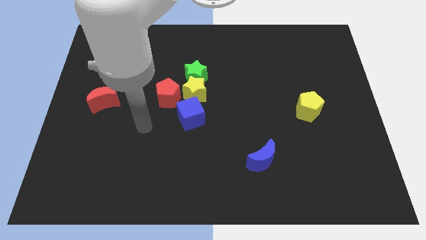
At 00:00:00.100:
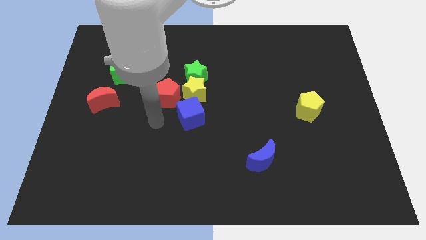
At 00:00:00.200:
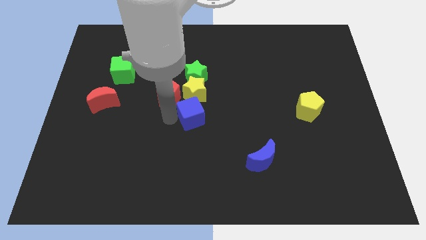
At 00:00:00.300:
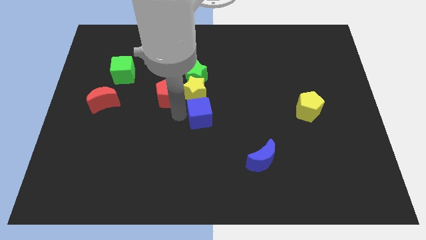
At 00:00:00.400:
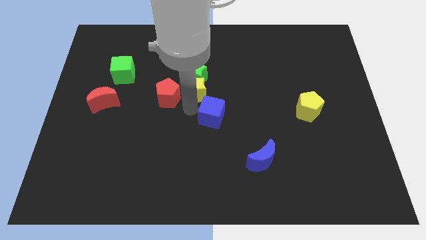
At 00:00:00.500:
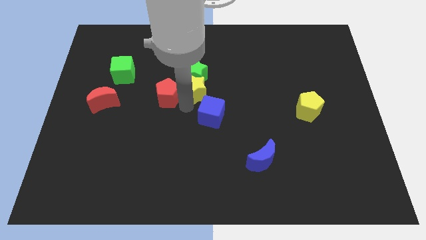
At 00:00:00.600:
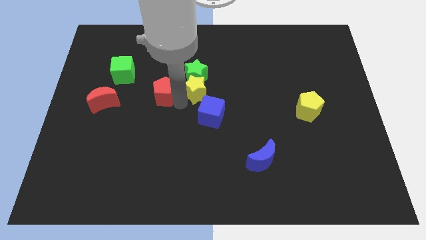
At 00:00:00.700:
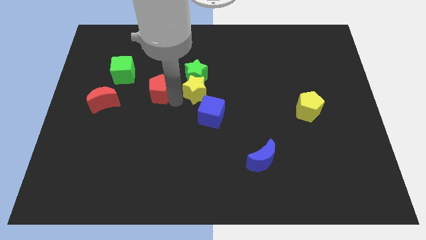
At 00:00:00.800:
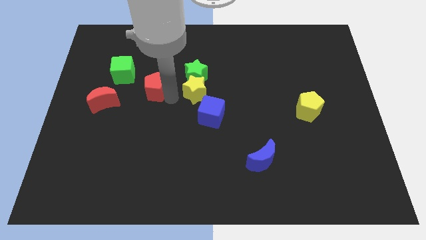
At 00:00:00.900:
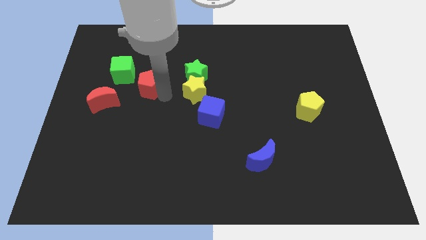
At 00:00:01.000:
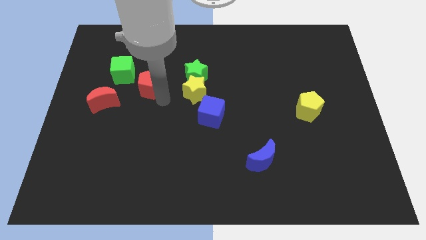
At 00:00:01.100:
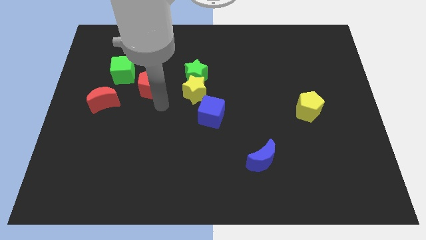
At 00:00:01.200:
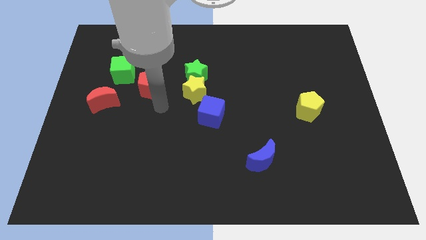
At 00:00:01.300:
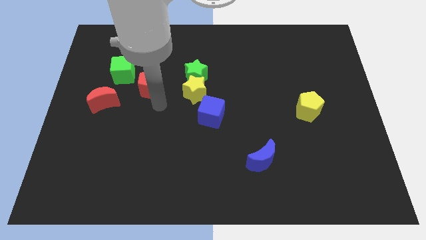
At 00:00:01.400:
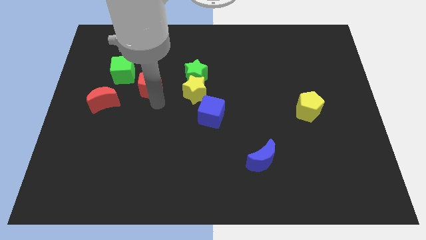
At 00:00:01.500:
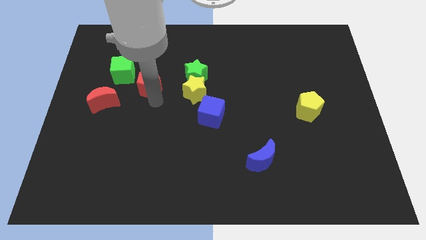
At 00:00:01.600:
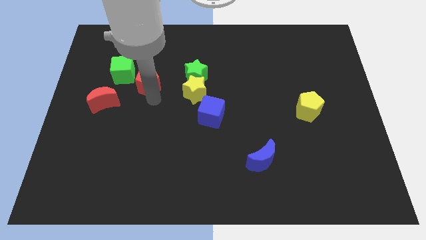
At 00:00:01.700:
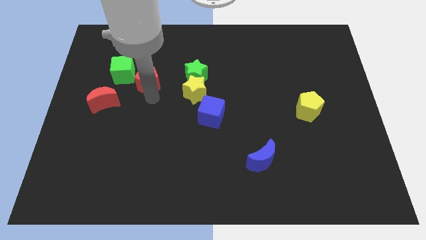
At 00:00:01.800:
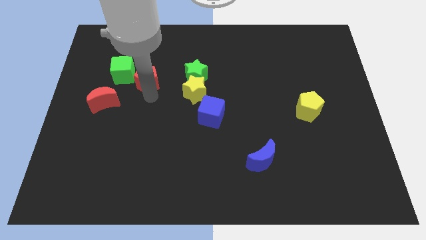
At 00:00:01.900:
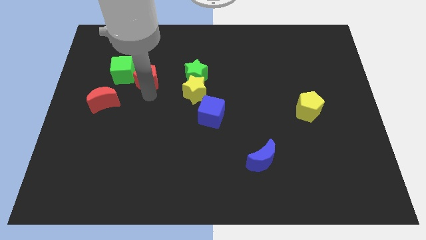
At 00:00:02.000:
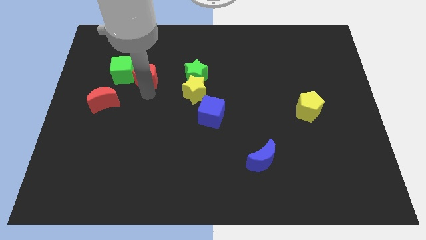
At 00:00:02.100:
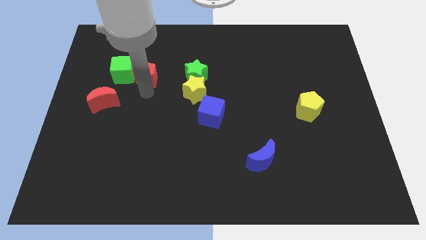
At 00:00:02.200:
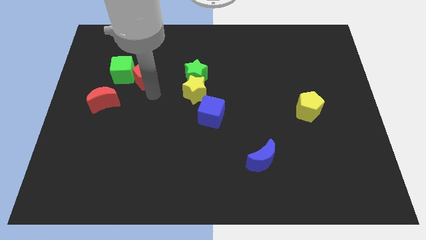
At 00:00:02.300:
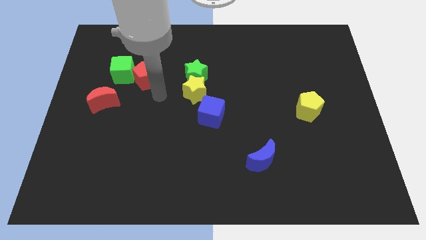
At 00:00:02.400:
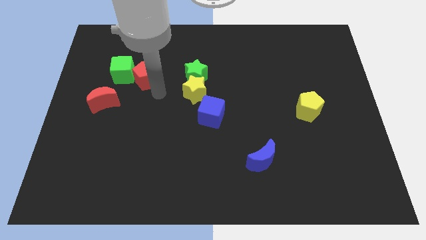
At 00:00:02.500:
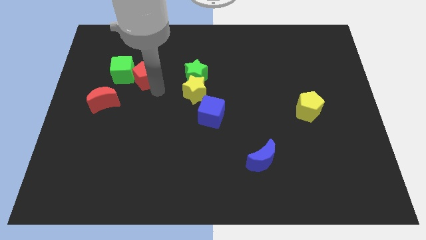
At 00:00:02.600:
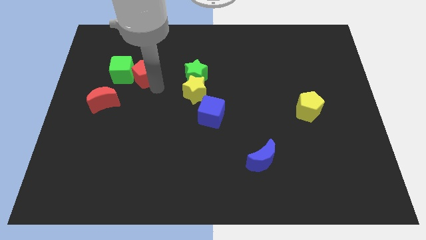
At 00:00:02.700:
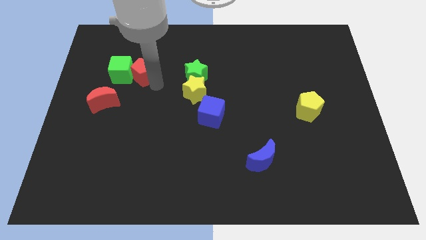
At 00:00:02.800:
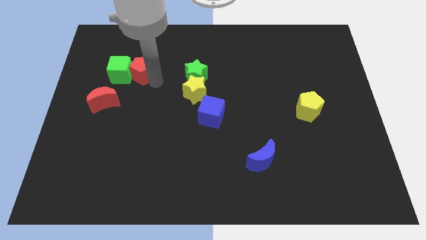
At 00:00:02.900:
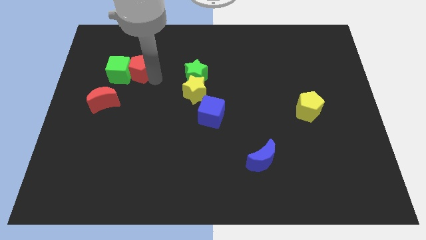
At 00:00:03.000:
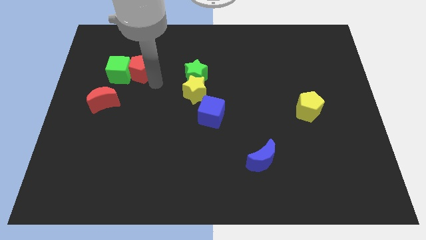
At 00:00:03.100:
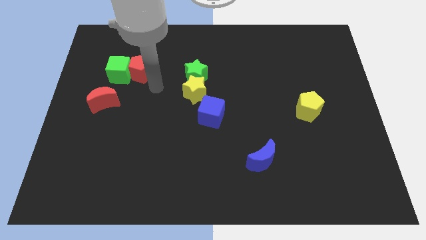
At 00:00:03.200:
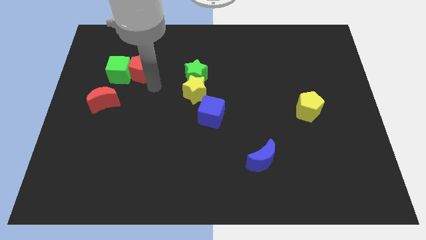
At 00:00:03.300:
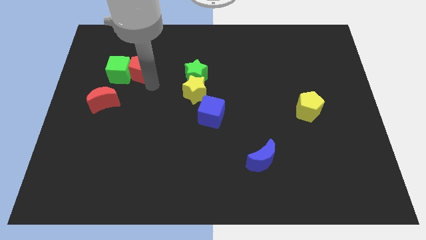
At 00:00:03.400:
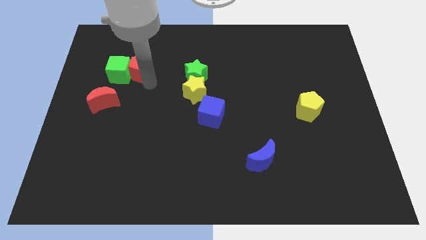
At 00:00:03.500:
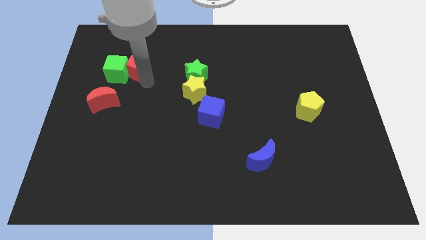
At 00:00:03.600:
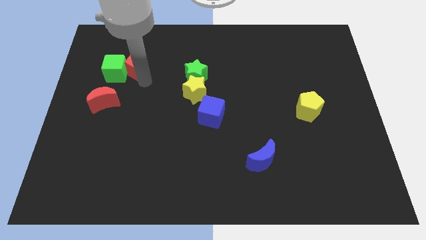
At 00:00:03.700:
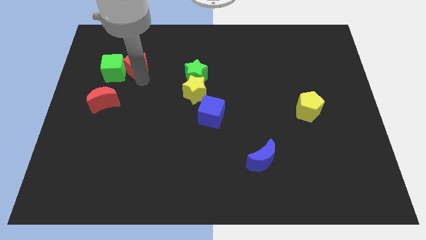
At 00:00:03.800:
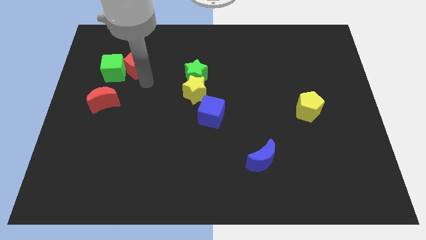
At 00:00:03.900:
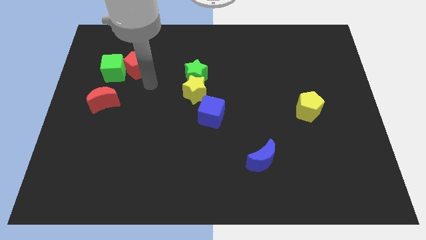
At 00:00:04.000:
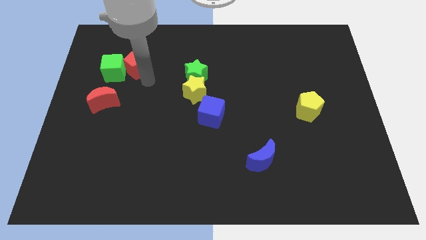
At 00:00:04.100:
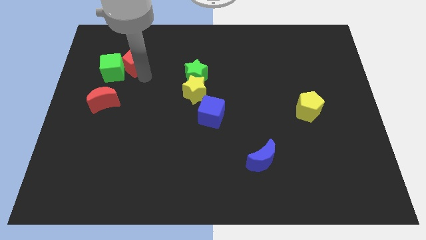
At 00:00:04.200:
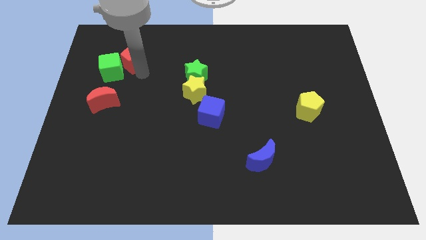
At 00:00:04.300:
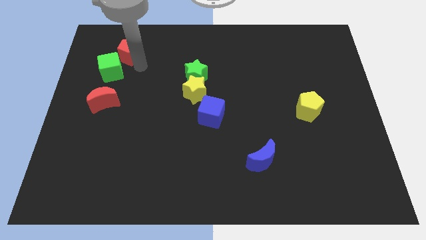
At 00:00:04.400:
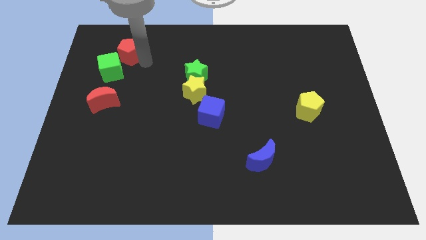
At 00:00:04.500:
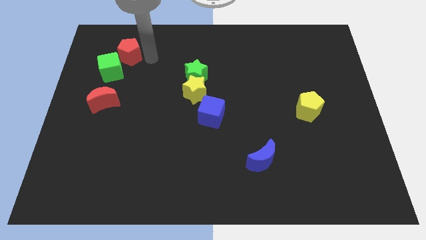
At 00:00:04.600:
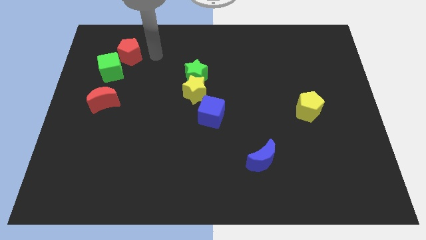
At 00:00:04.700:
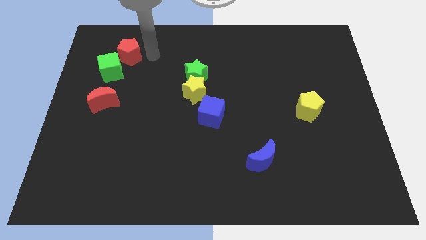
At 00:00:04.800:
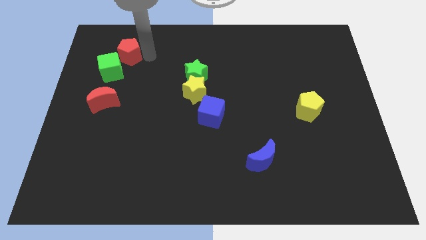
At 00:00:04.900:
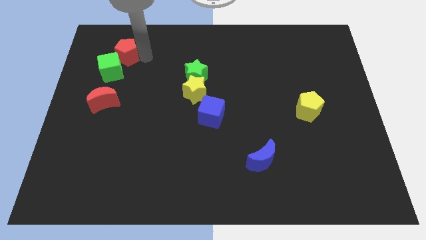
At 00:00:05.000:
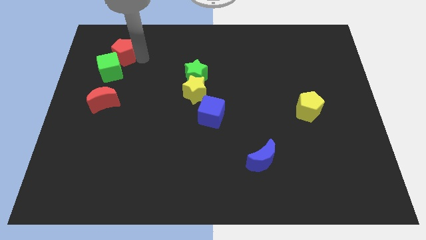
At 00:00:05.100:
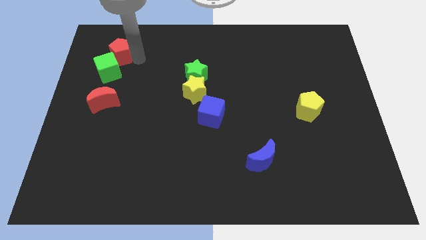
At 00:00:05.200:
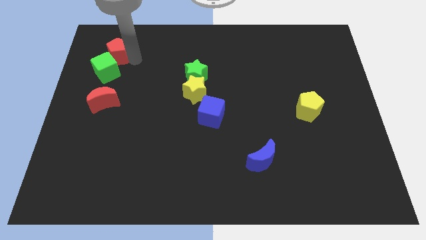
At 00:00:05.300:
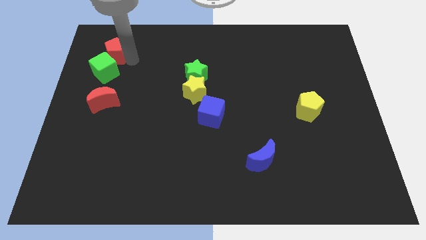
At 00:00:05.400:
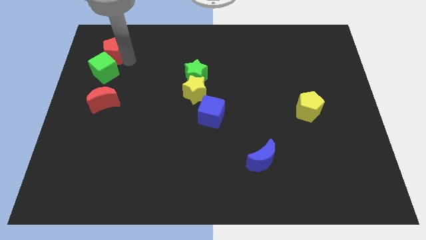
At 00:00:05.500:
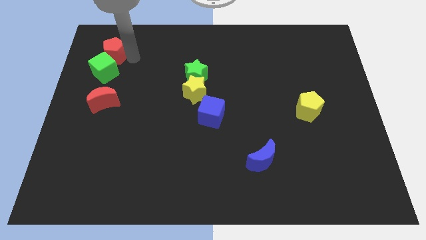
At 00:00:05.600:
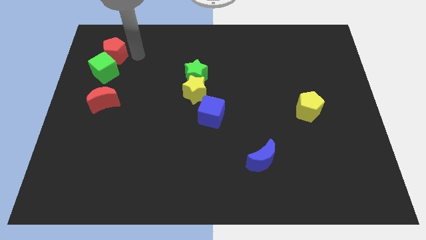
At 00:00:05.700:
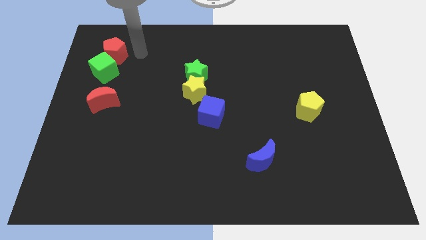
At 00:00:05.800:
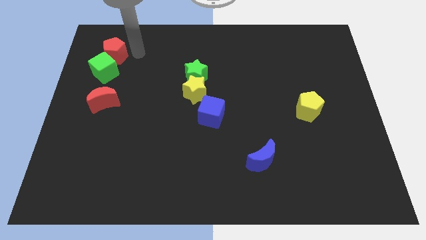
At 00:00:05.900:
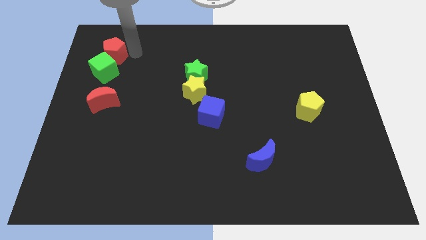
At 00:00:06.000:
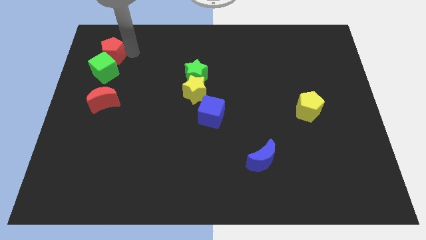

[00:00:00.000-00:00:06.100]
slide the red pentagon to the top left of the green cube

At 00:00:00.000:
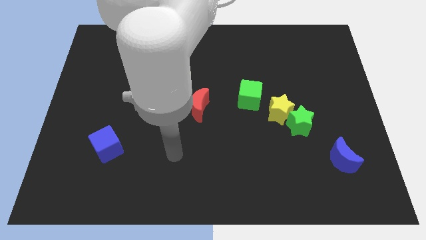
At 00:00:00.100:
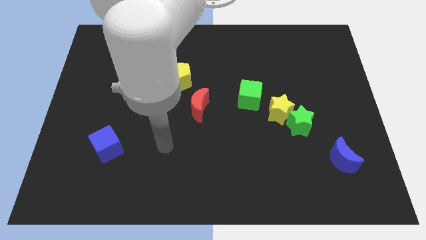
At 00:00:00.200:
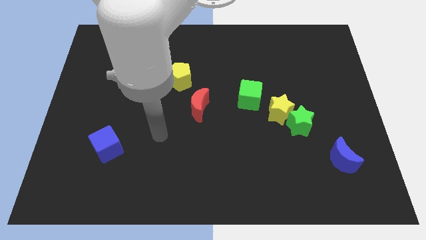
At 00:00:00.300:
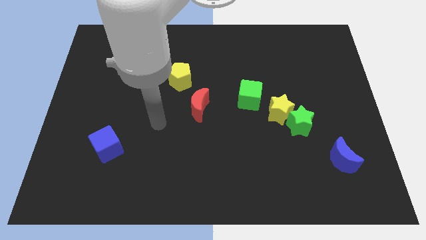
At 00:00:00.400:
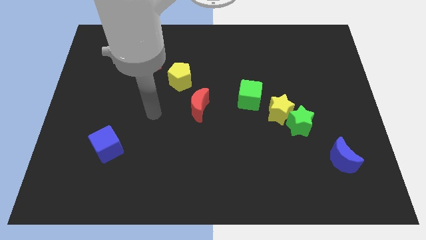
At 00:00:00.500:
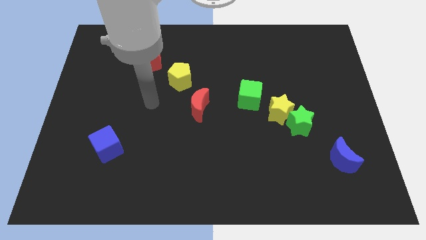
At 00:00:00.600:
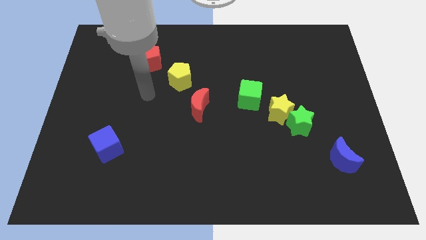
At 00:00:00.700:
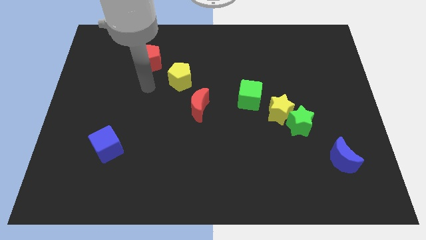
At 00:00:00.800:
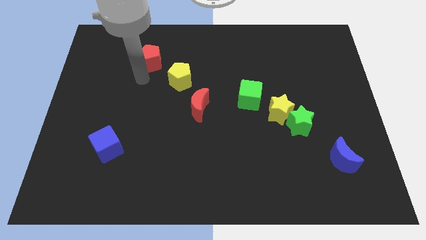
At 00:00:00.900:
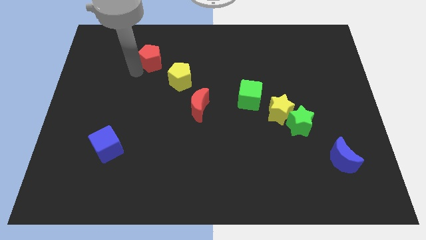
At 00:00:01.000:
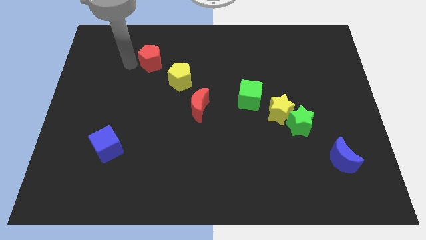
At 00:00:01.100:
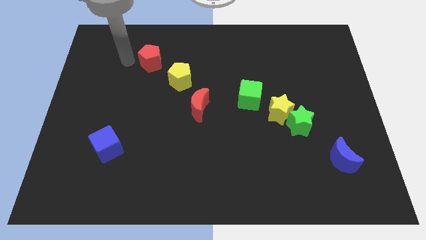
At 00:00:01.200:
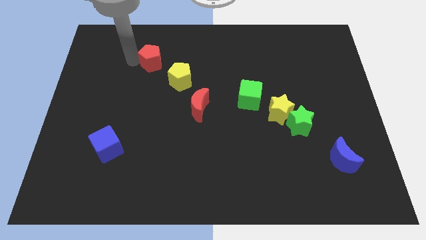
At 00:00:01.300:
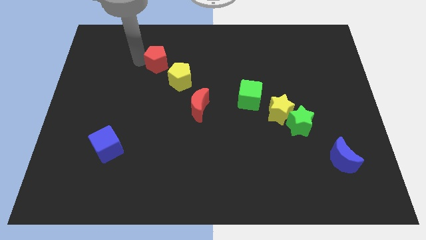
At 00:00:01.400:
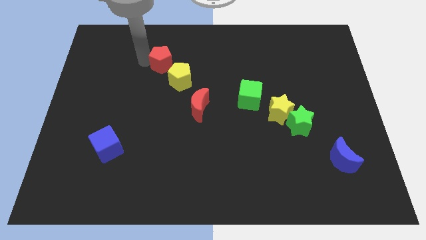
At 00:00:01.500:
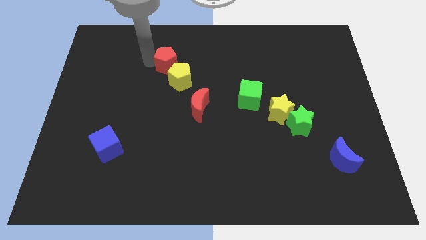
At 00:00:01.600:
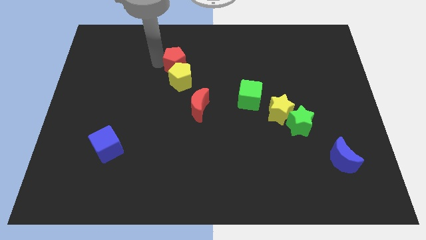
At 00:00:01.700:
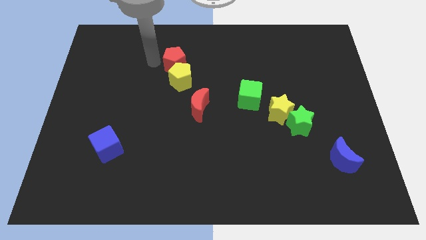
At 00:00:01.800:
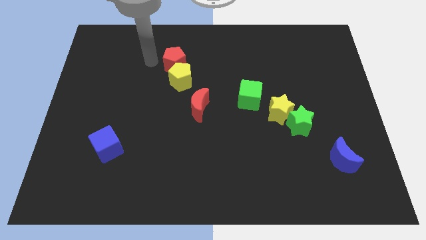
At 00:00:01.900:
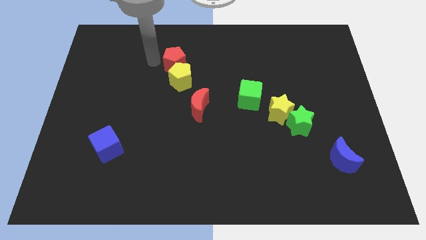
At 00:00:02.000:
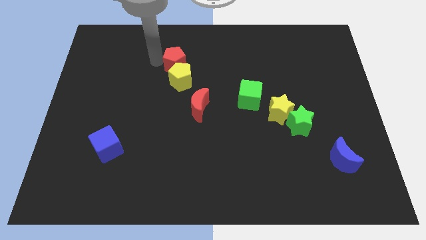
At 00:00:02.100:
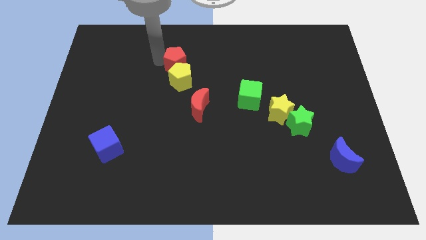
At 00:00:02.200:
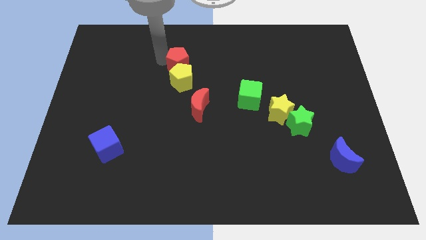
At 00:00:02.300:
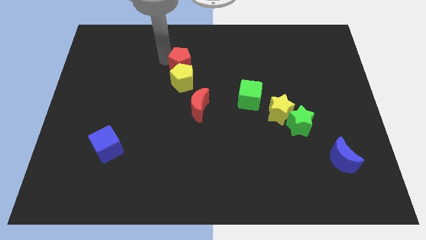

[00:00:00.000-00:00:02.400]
move the red pentagon diagonally up and to the right of the yellow pentagon
